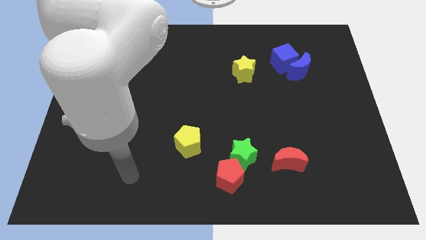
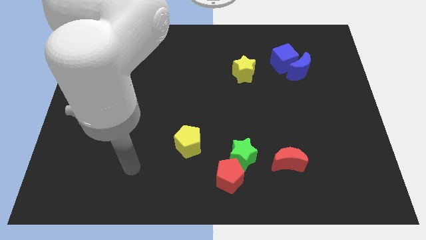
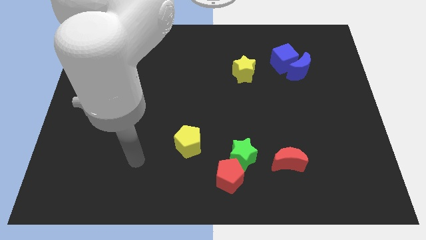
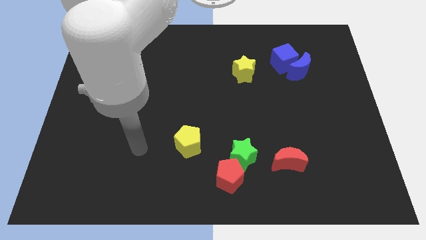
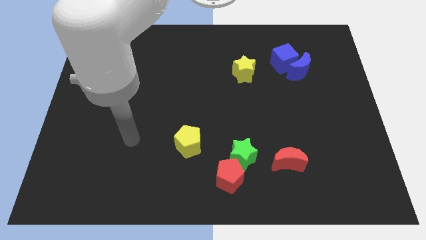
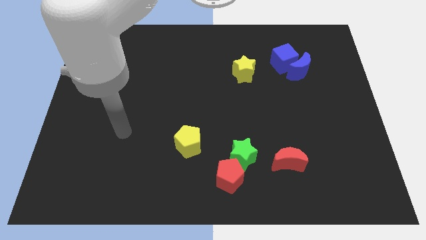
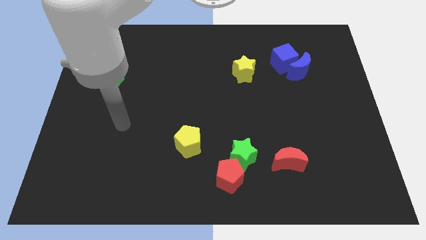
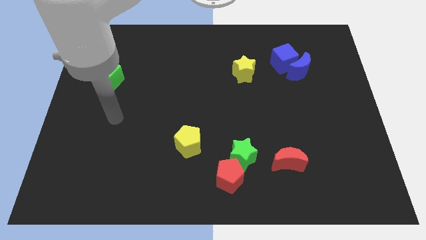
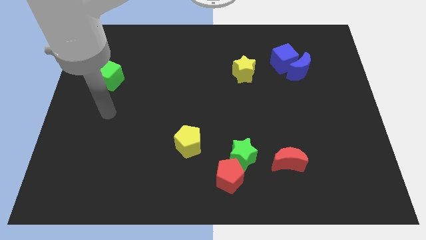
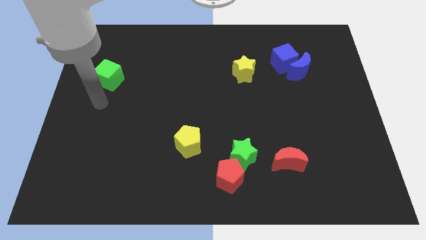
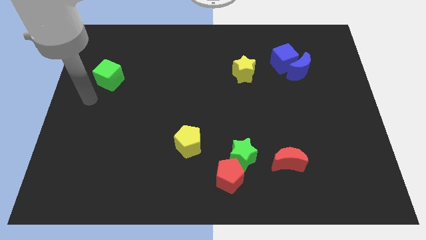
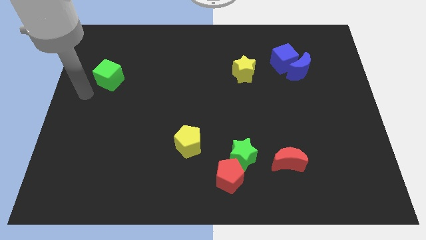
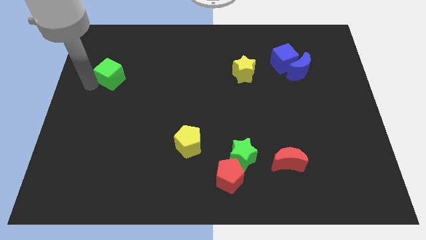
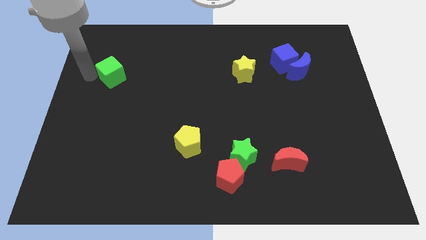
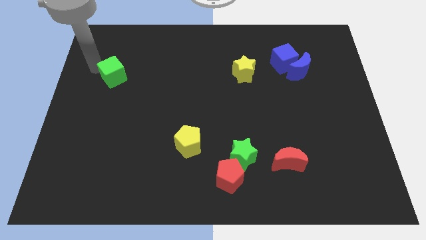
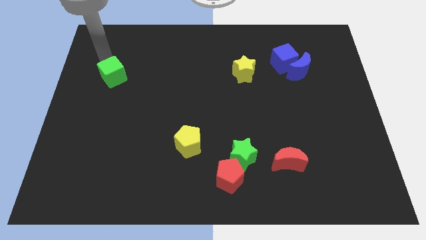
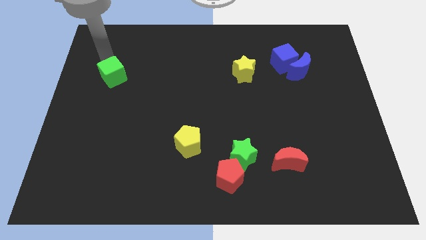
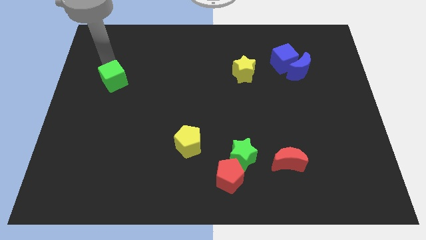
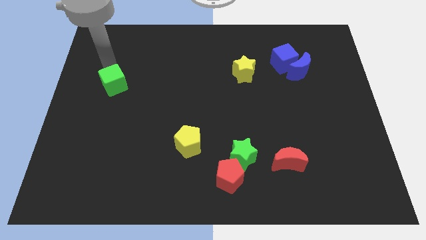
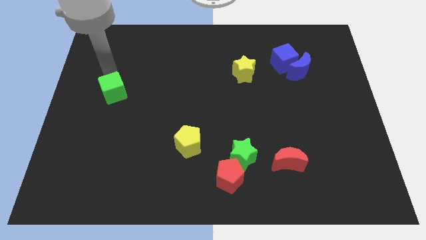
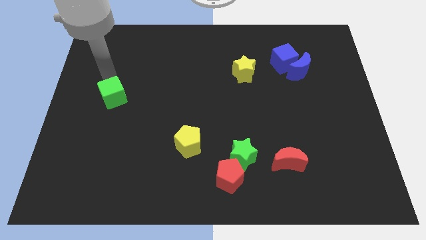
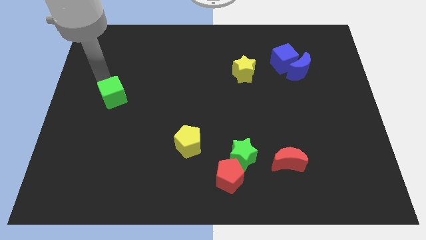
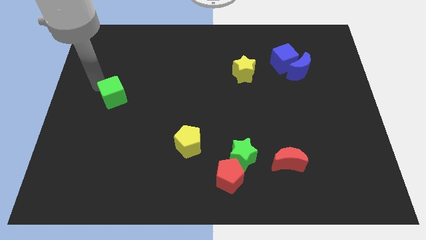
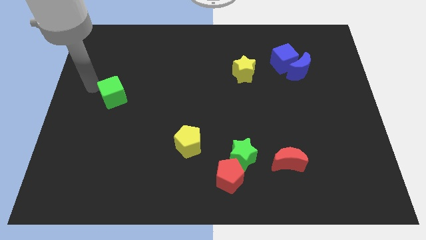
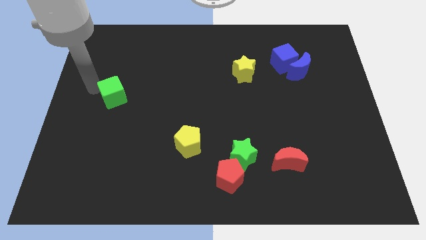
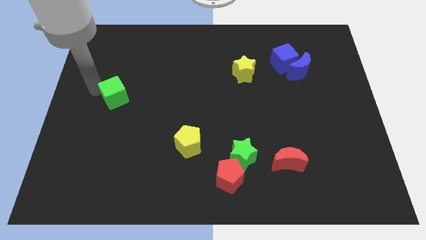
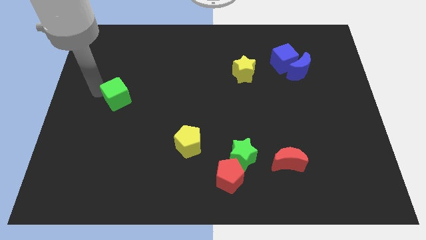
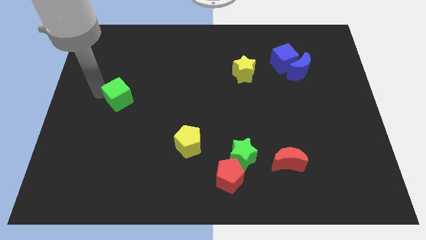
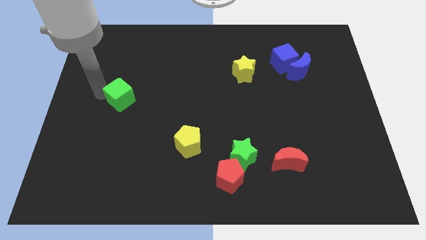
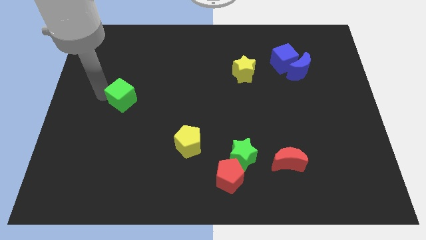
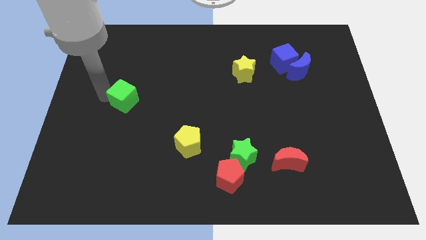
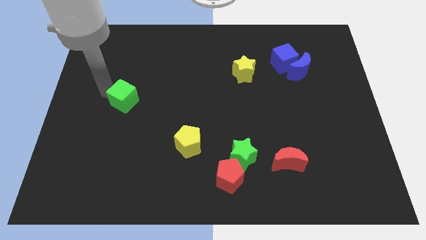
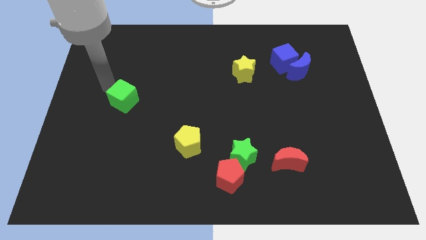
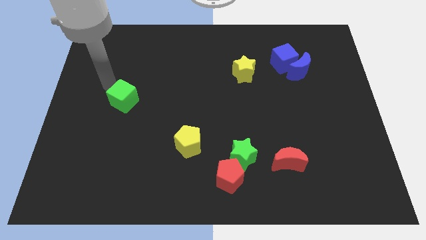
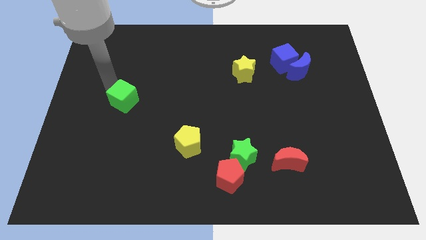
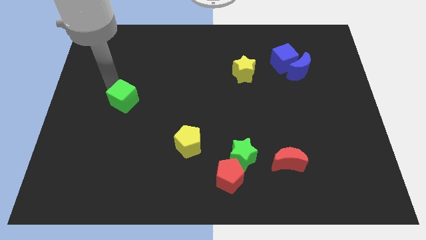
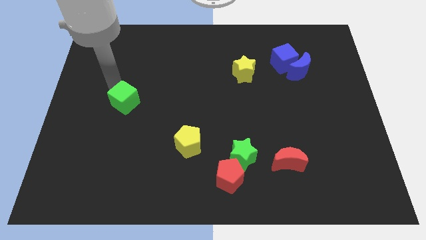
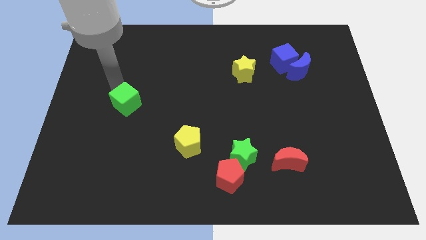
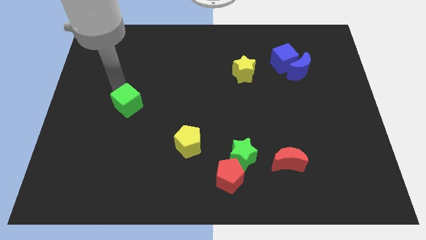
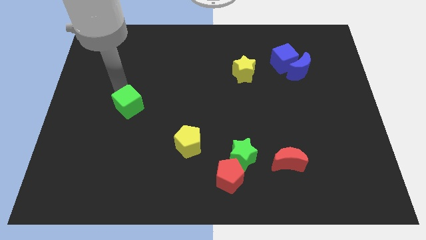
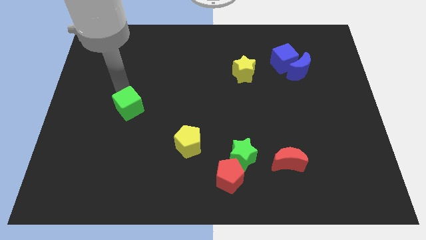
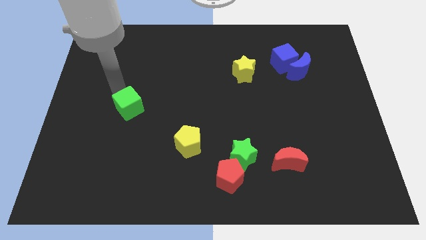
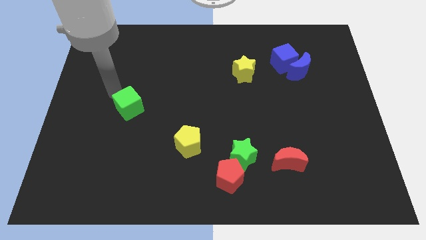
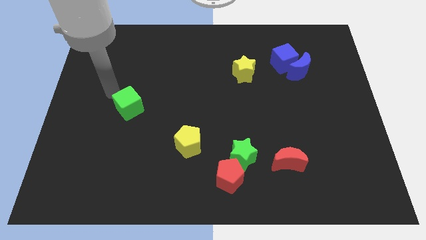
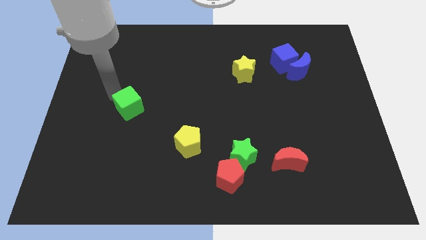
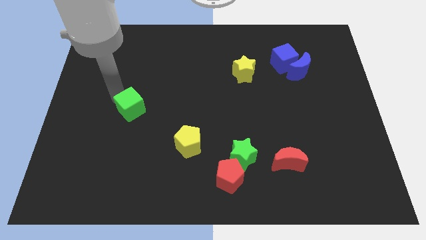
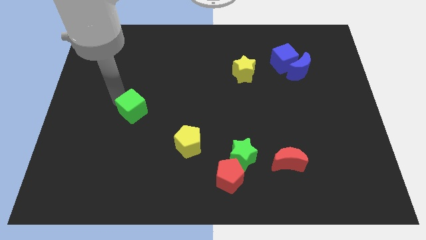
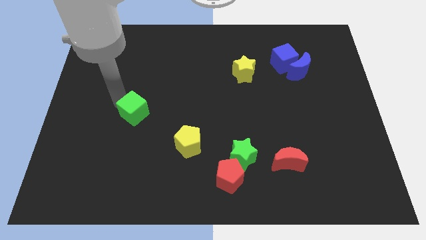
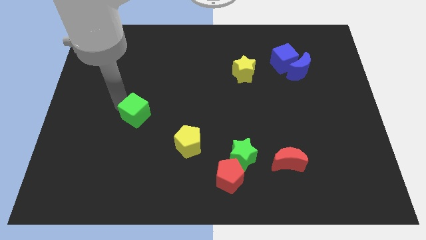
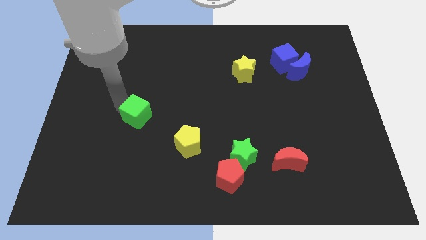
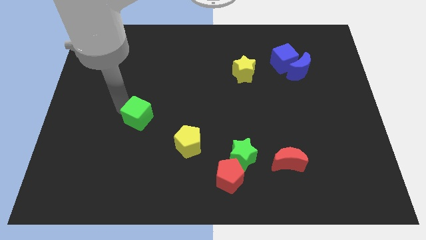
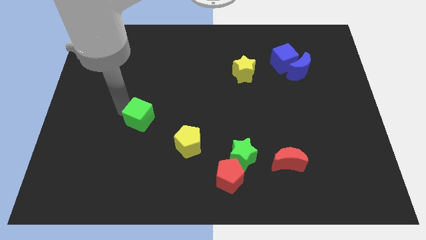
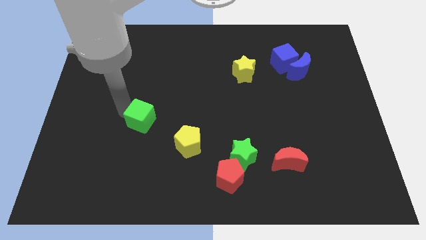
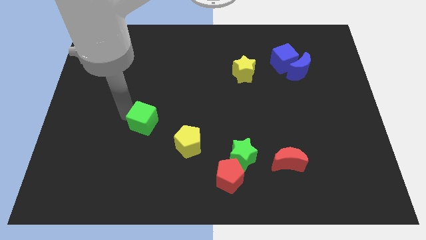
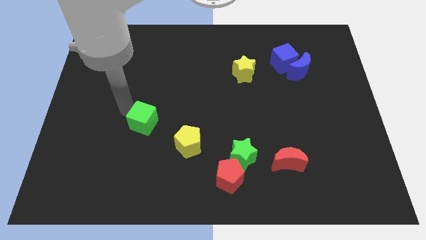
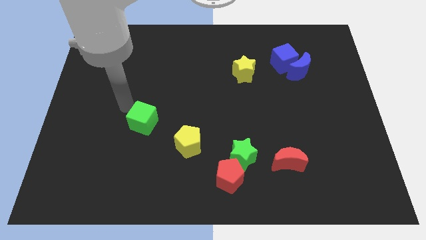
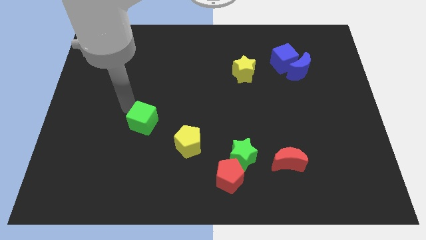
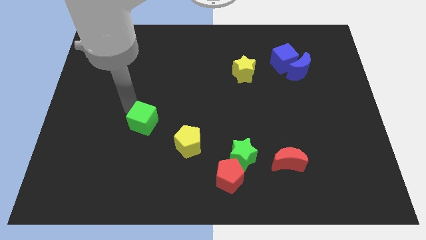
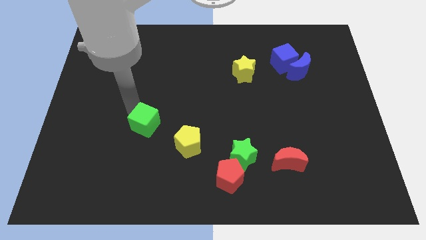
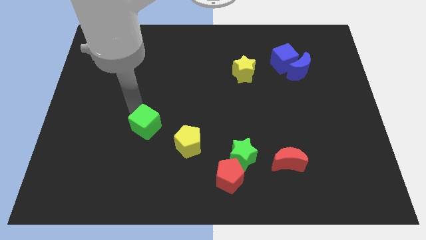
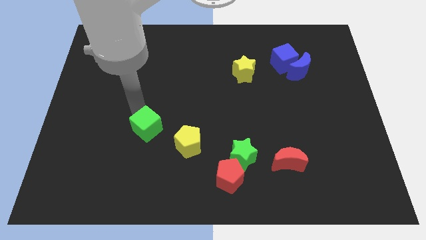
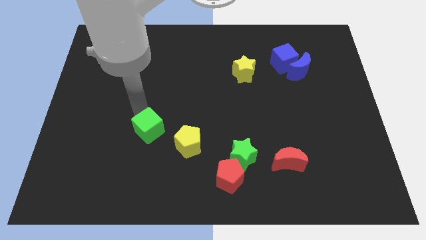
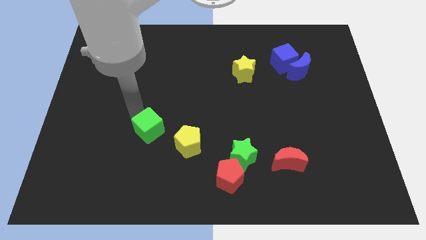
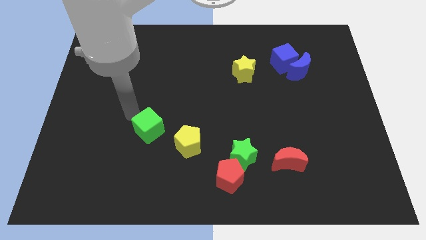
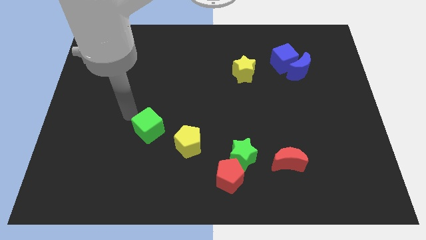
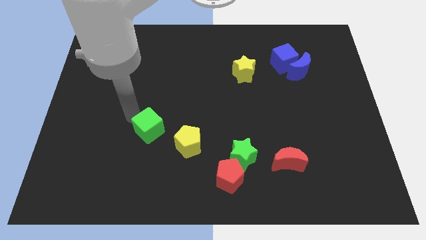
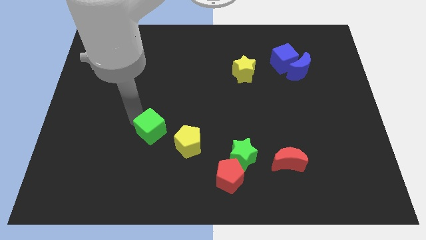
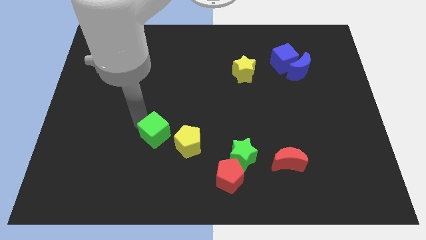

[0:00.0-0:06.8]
push the green cube down and right diagonally

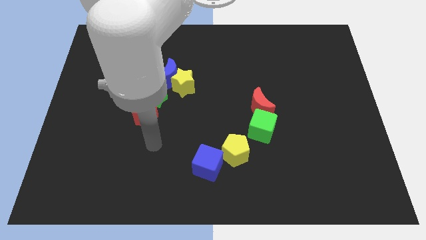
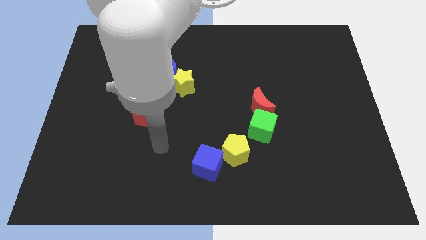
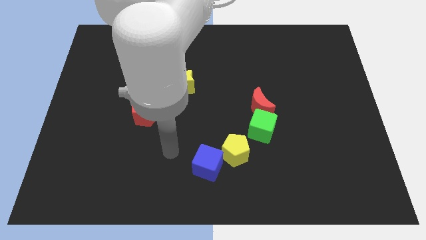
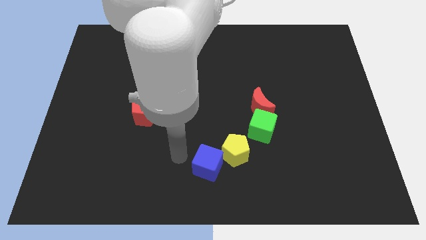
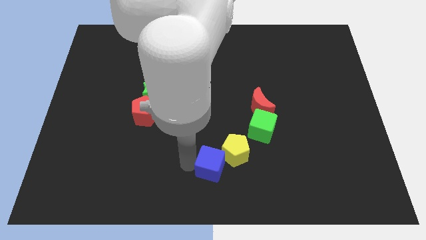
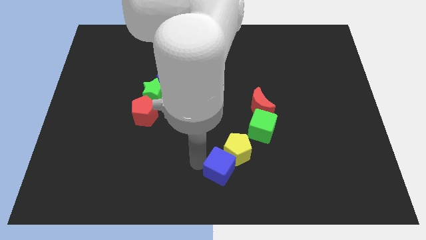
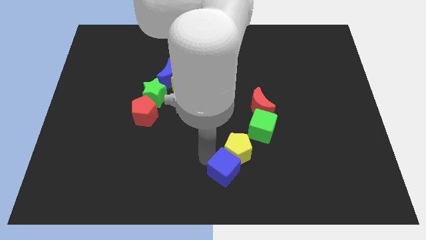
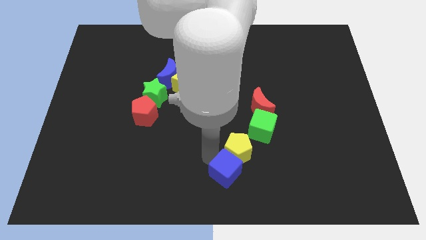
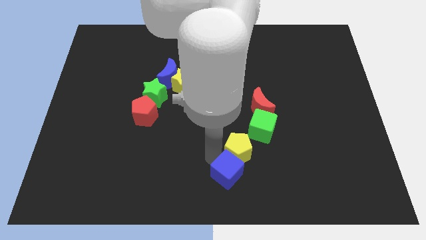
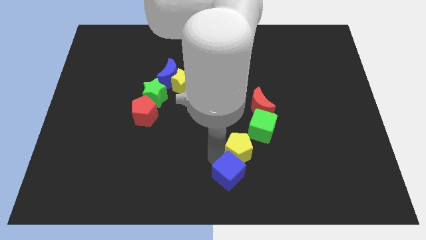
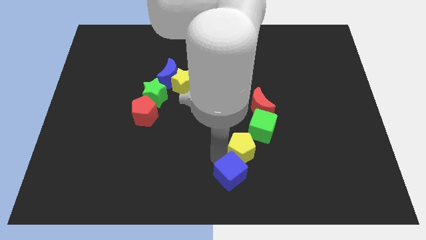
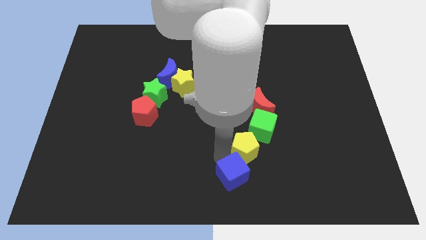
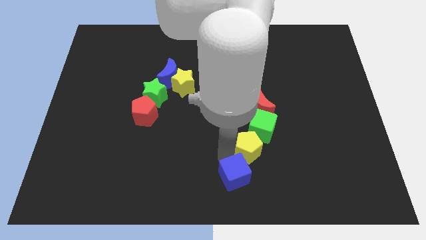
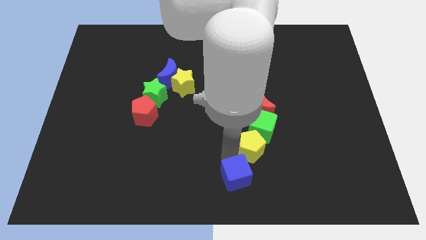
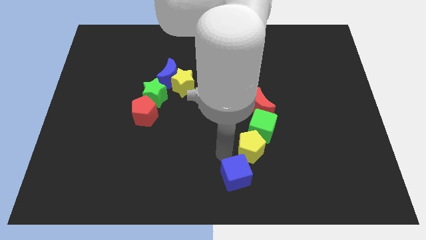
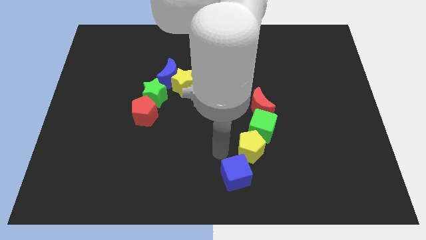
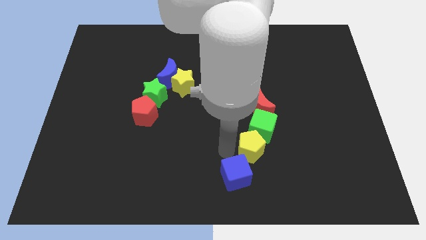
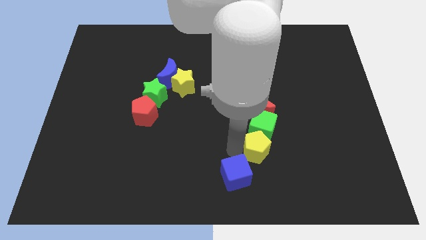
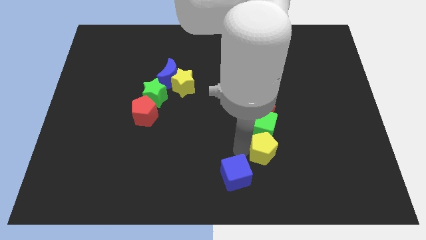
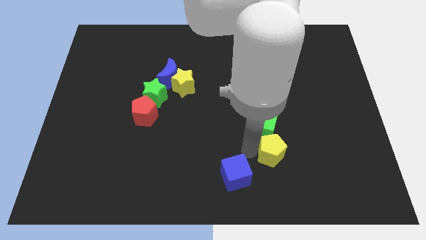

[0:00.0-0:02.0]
slightly slide the yellow pentagon right
